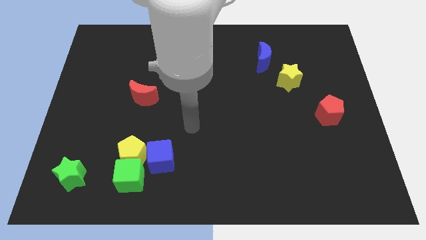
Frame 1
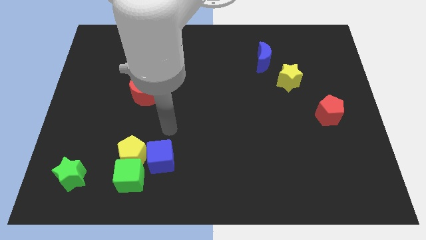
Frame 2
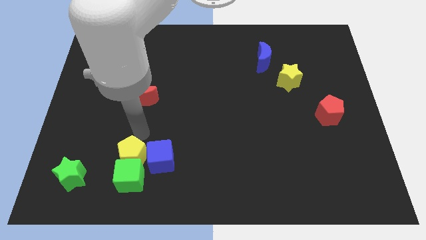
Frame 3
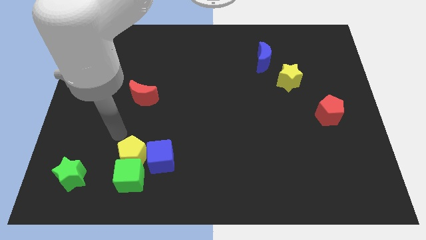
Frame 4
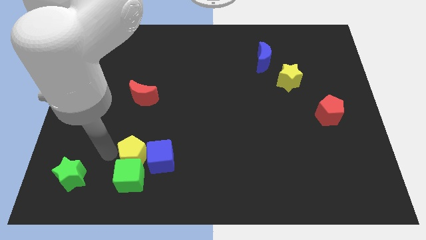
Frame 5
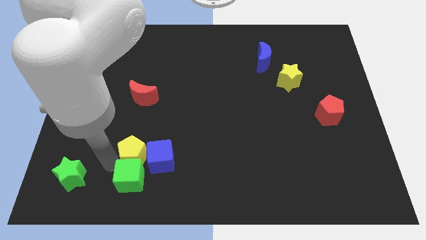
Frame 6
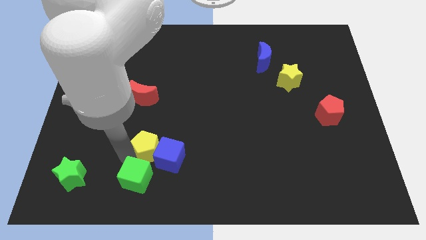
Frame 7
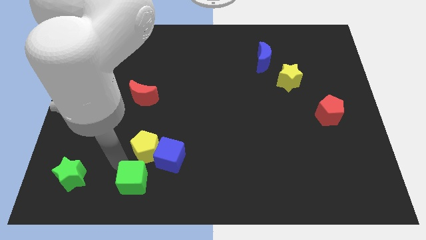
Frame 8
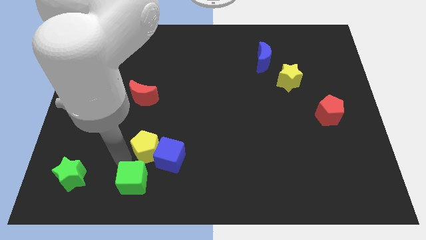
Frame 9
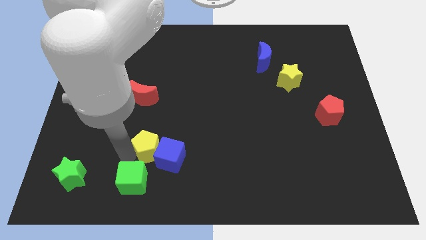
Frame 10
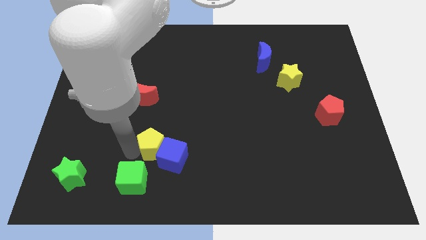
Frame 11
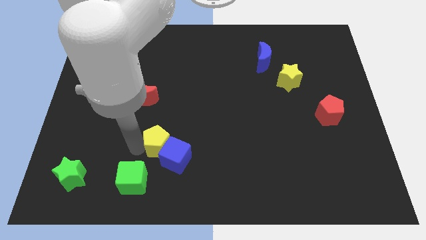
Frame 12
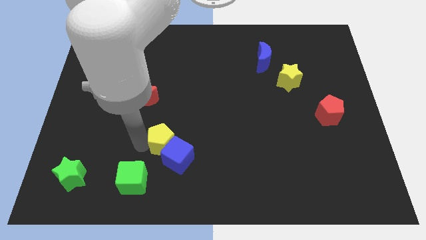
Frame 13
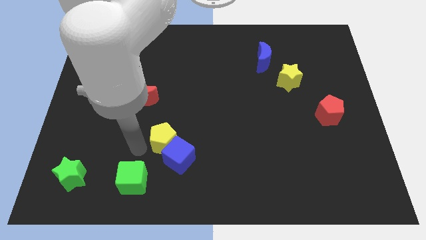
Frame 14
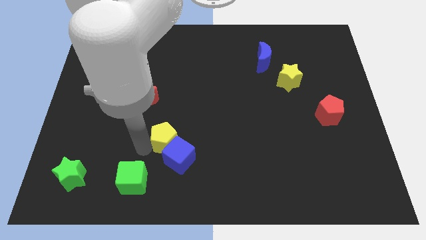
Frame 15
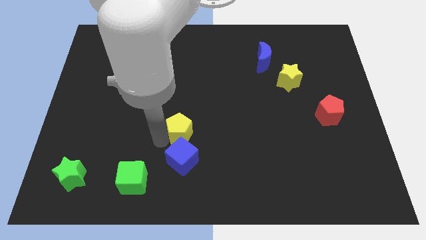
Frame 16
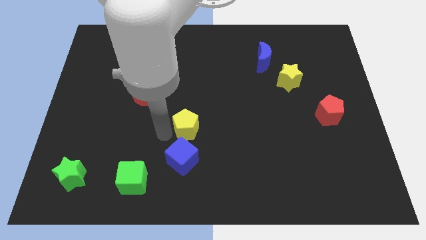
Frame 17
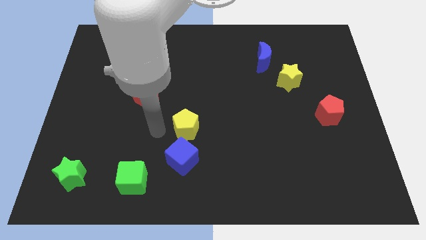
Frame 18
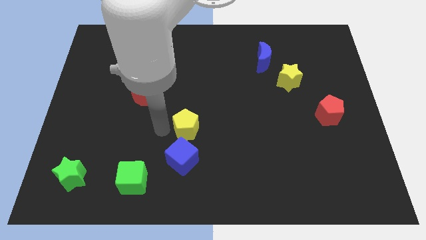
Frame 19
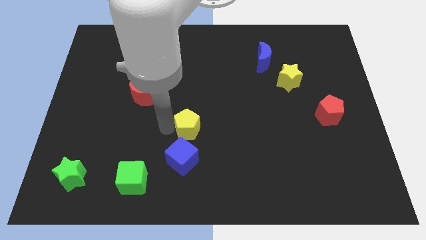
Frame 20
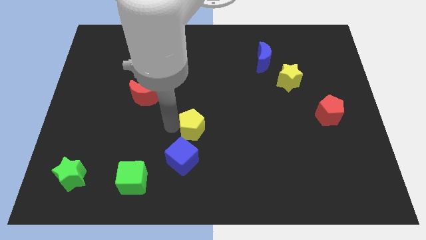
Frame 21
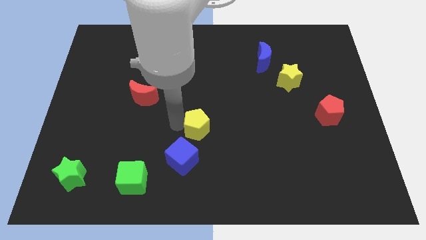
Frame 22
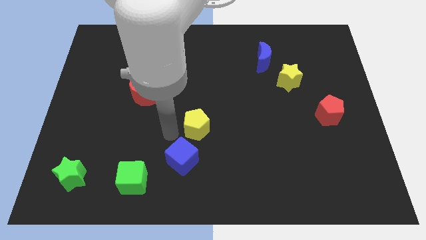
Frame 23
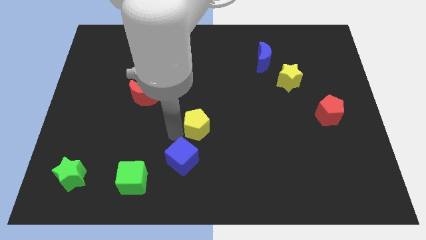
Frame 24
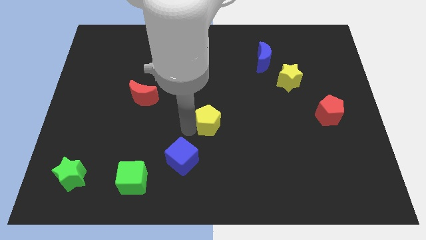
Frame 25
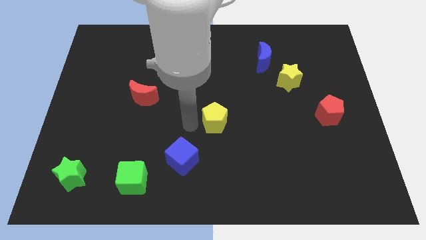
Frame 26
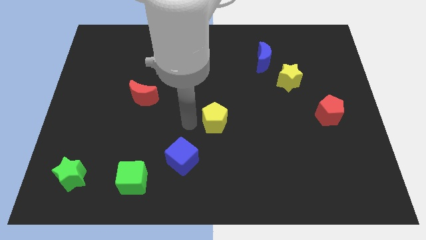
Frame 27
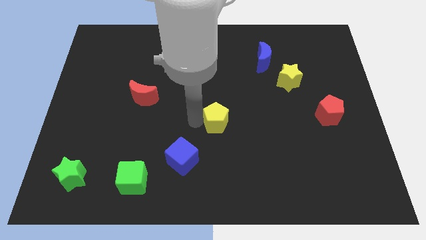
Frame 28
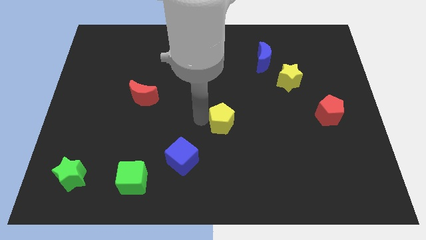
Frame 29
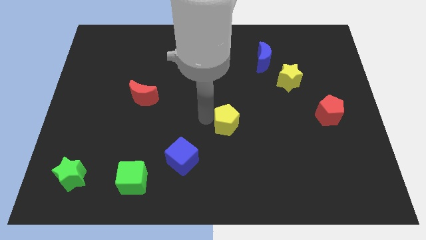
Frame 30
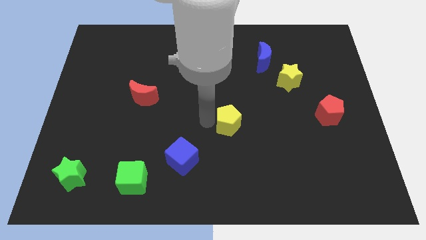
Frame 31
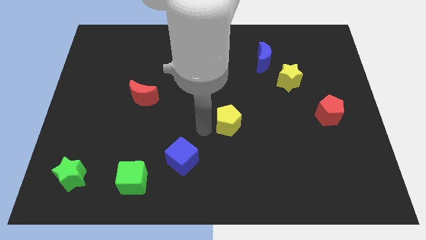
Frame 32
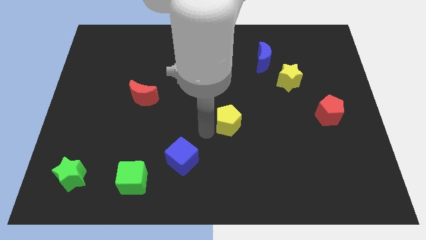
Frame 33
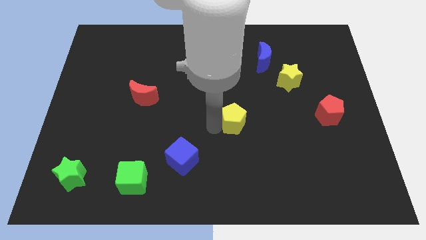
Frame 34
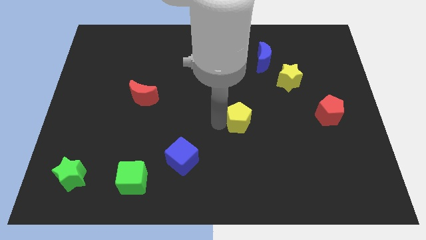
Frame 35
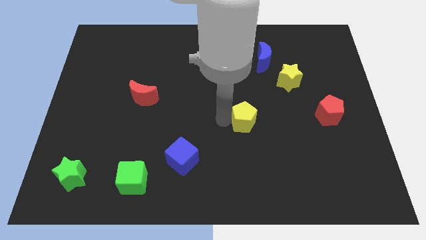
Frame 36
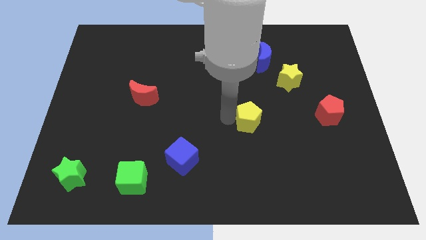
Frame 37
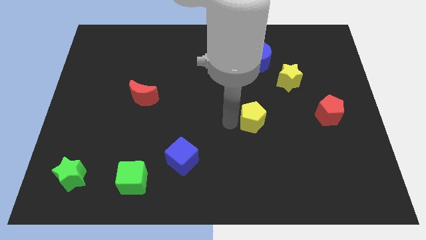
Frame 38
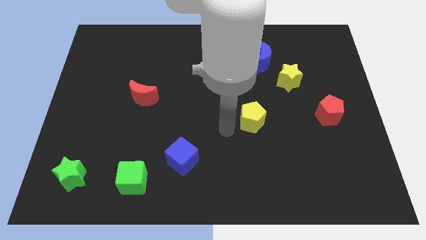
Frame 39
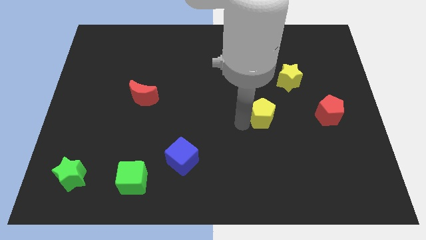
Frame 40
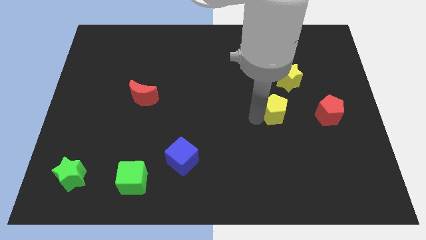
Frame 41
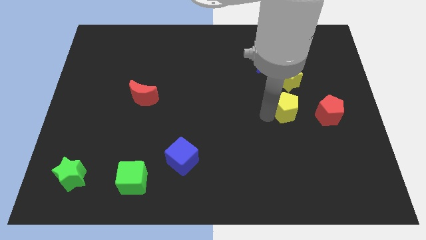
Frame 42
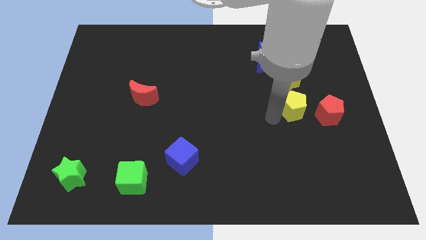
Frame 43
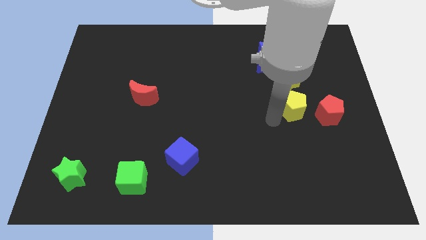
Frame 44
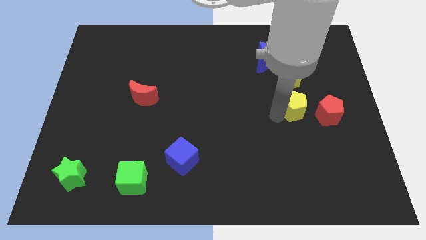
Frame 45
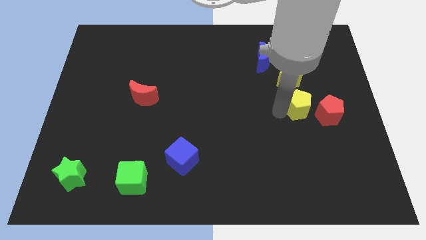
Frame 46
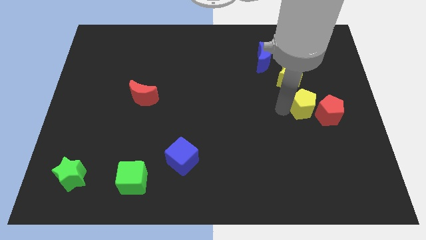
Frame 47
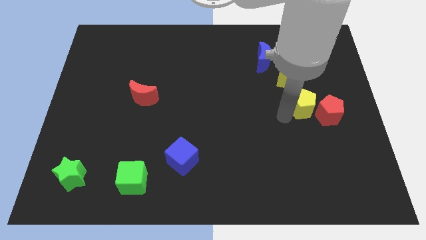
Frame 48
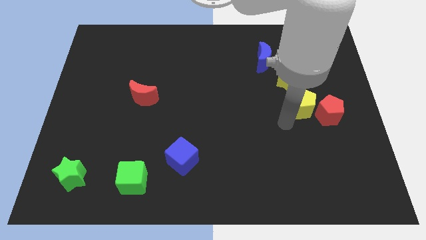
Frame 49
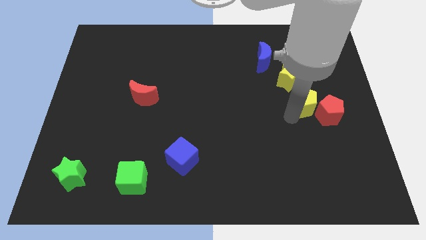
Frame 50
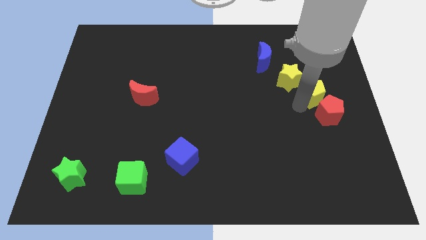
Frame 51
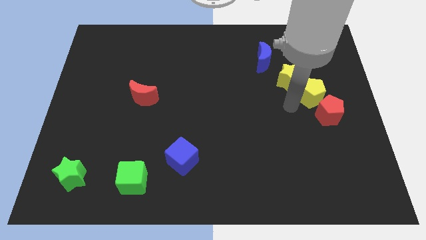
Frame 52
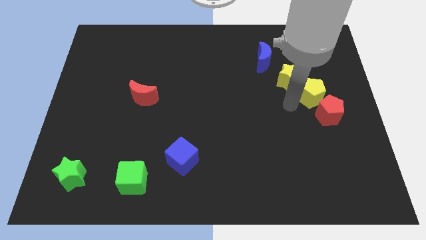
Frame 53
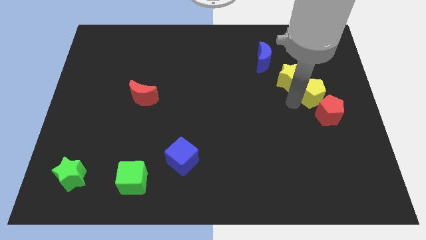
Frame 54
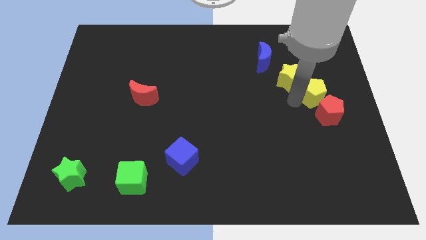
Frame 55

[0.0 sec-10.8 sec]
move the yellow pentagon to the right of the yellow star

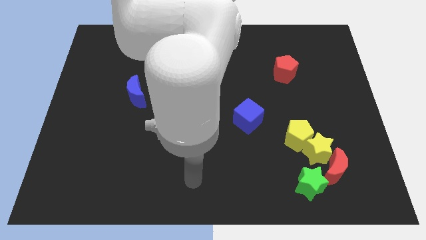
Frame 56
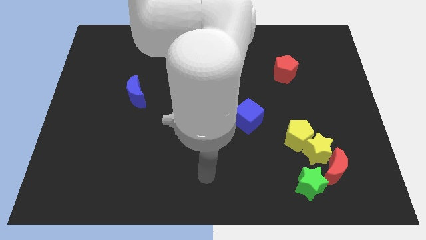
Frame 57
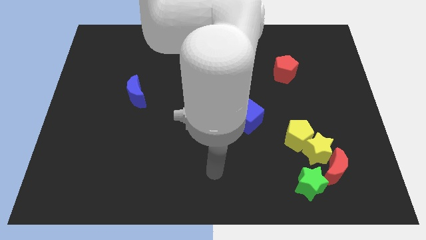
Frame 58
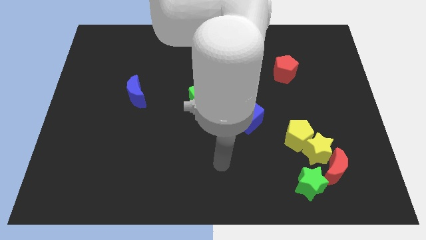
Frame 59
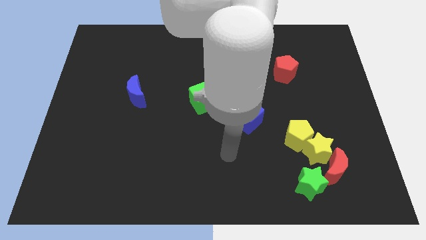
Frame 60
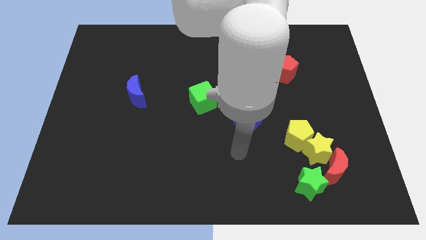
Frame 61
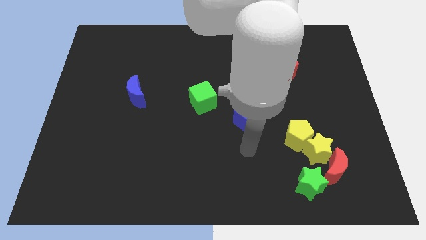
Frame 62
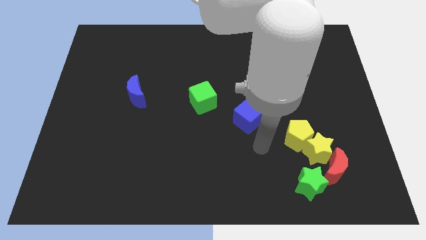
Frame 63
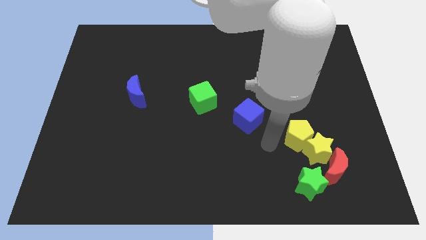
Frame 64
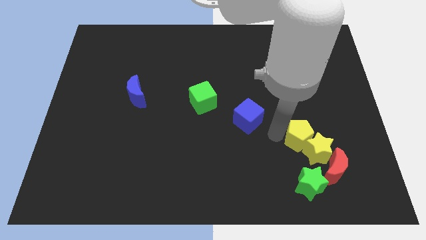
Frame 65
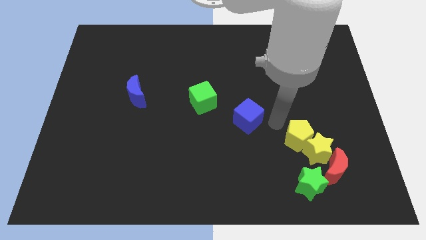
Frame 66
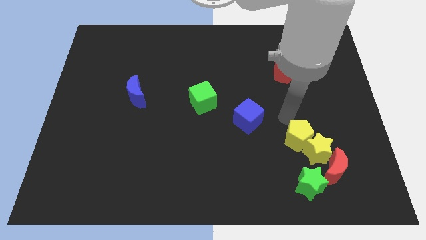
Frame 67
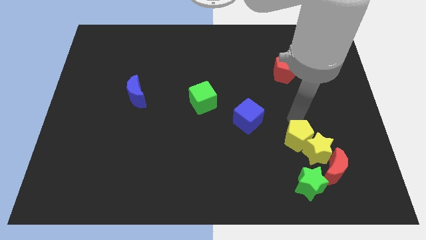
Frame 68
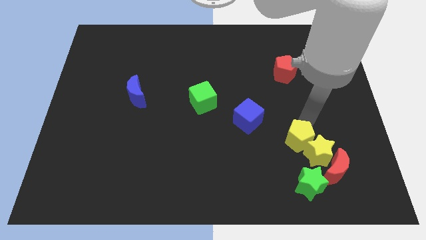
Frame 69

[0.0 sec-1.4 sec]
put the yellow star just left of the red moon

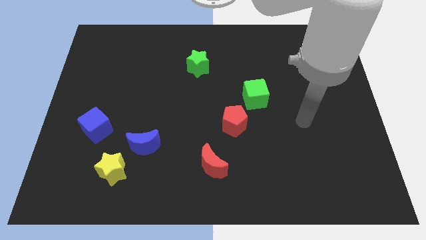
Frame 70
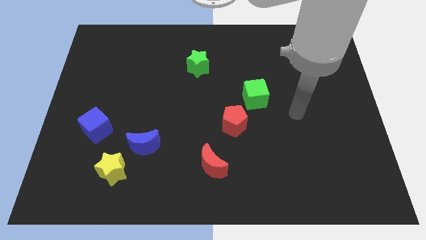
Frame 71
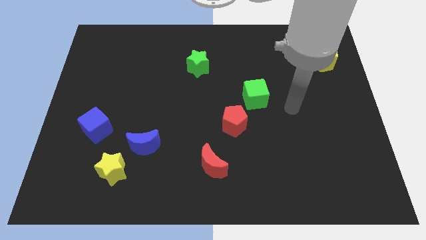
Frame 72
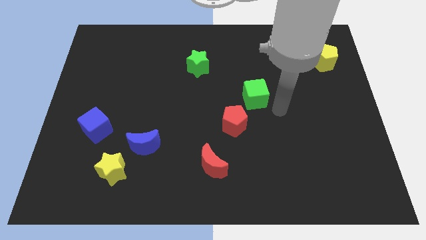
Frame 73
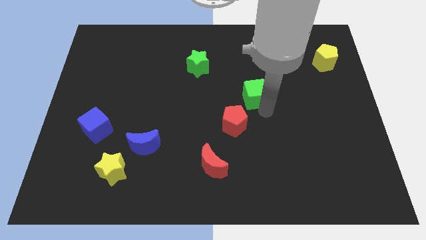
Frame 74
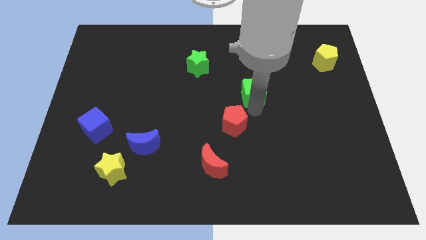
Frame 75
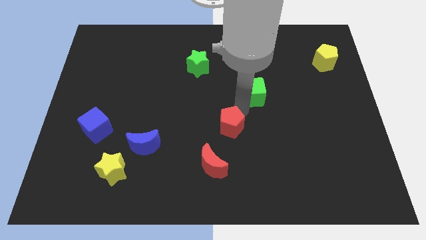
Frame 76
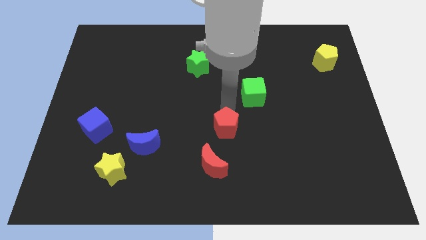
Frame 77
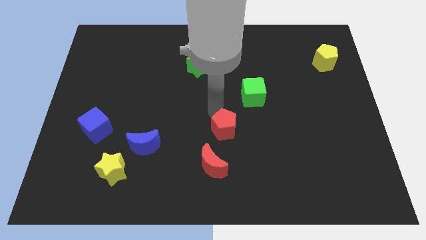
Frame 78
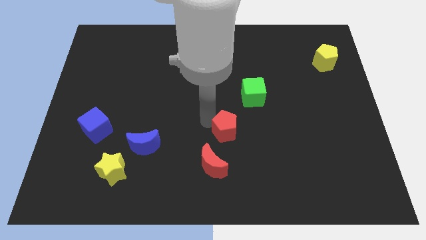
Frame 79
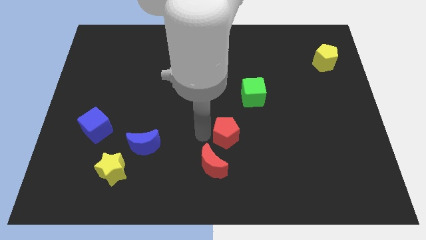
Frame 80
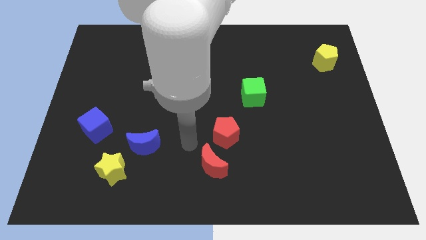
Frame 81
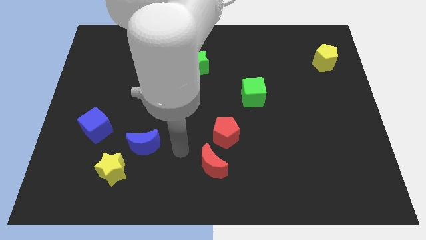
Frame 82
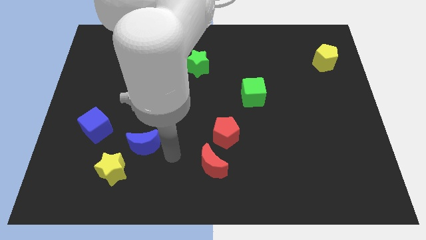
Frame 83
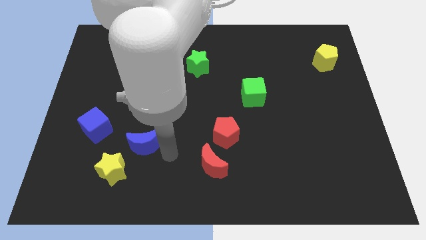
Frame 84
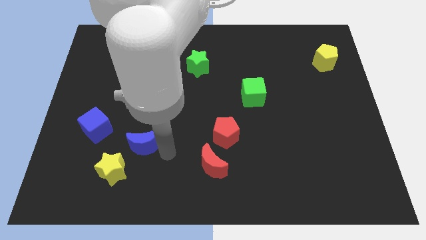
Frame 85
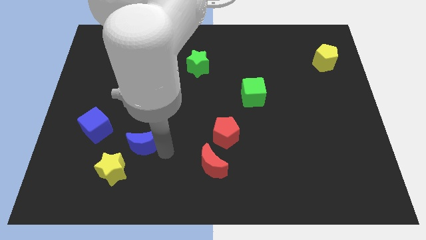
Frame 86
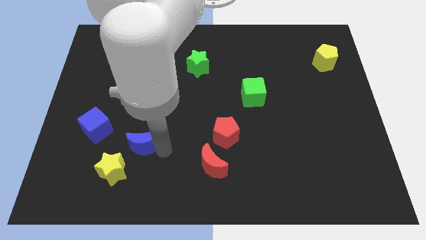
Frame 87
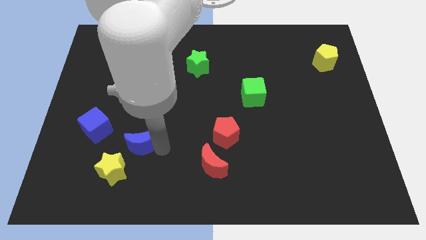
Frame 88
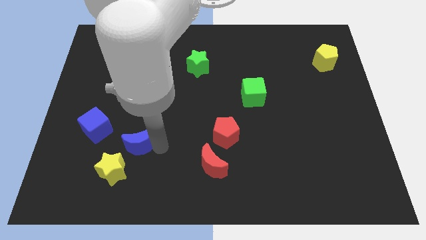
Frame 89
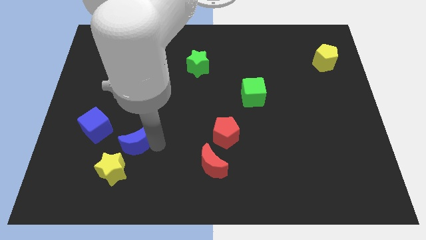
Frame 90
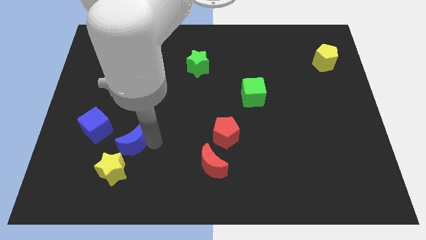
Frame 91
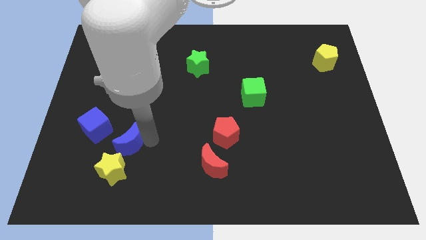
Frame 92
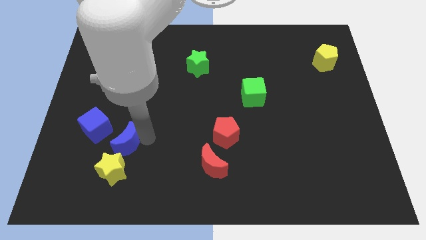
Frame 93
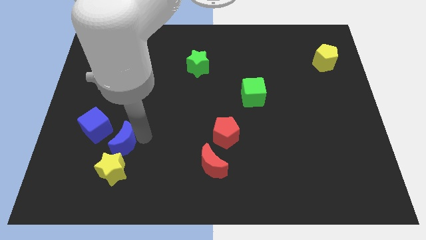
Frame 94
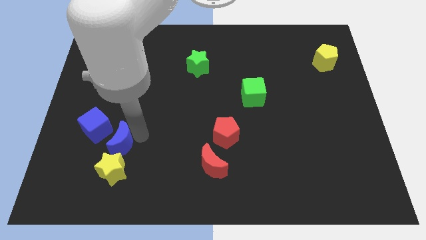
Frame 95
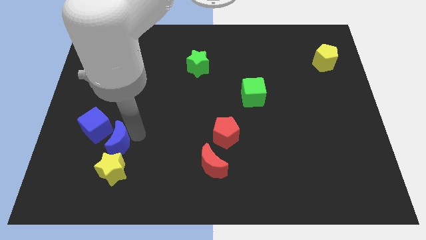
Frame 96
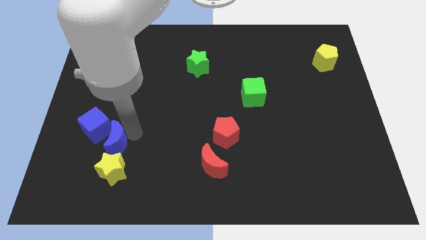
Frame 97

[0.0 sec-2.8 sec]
push the blue moon to the top left of the yellow star
